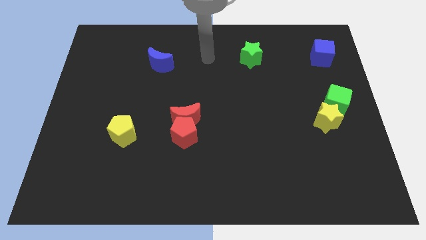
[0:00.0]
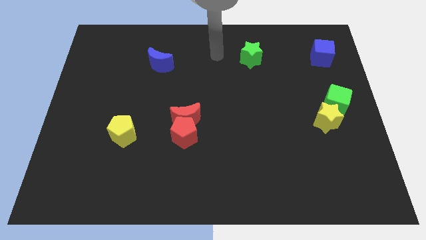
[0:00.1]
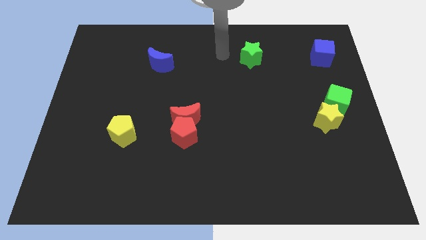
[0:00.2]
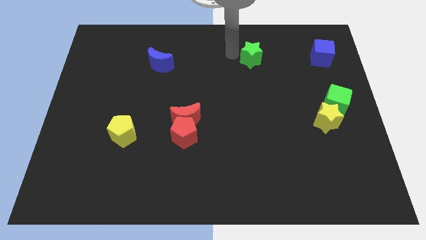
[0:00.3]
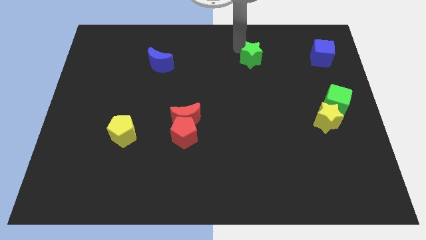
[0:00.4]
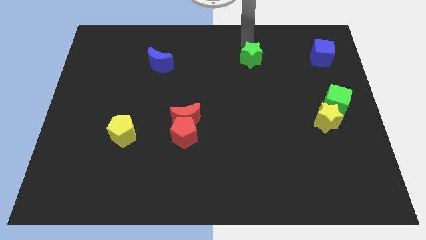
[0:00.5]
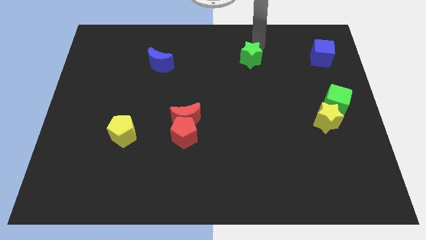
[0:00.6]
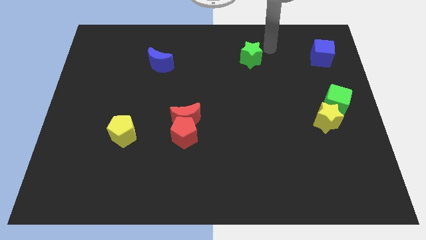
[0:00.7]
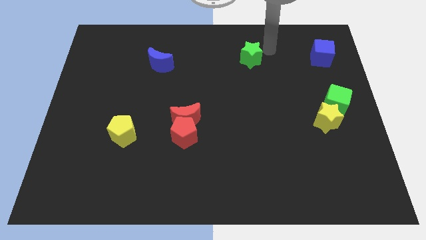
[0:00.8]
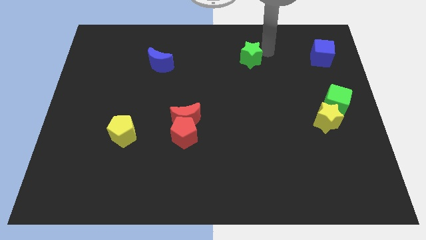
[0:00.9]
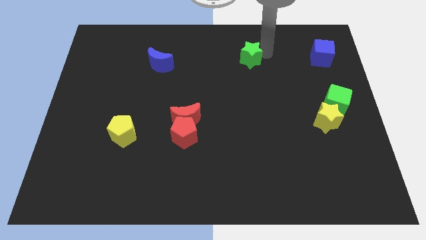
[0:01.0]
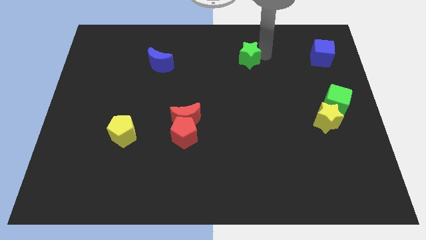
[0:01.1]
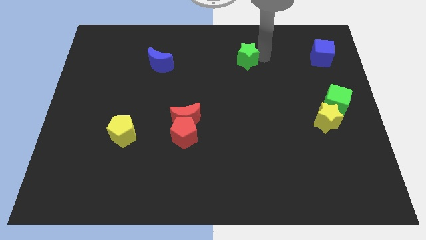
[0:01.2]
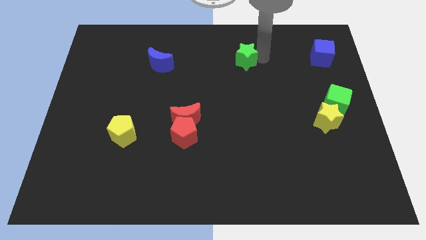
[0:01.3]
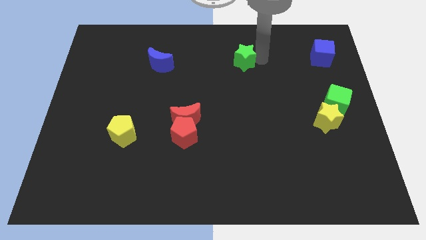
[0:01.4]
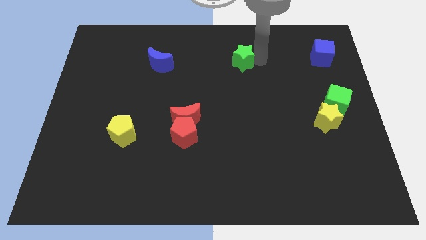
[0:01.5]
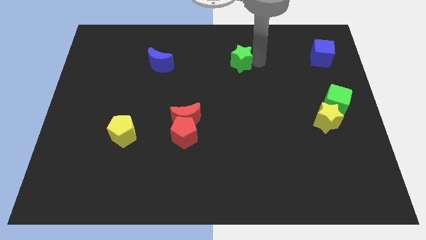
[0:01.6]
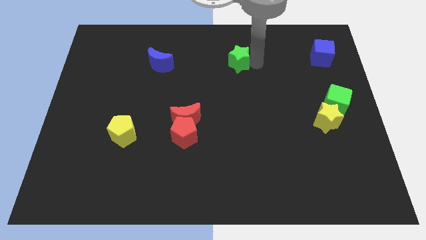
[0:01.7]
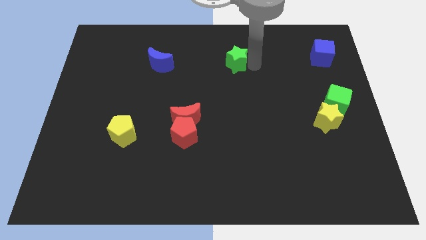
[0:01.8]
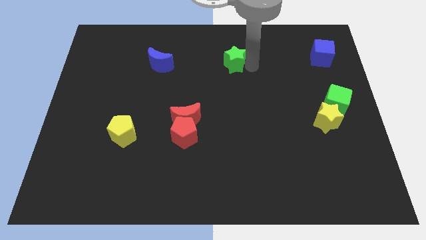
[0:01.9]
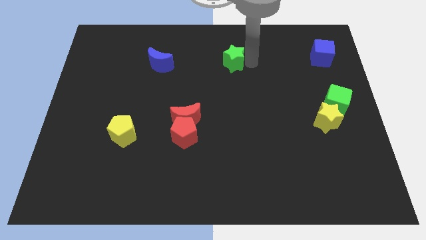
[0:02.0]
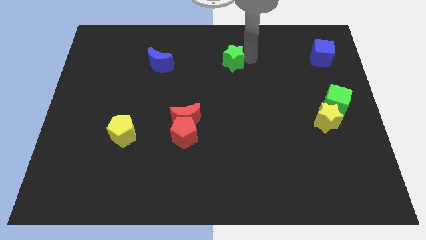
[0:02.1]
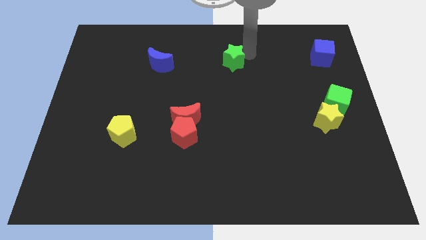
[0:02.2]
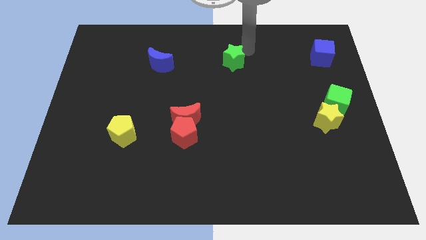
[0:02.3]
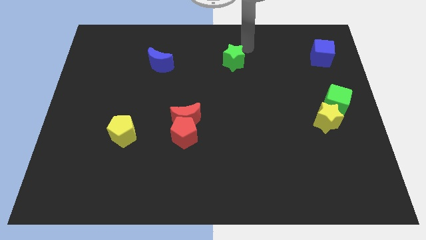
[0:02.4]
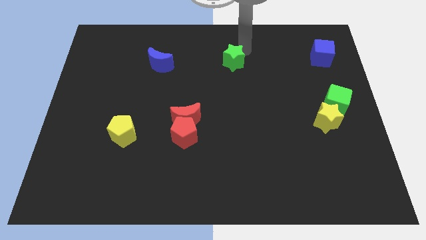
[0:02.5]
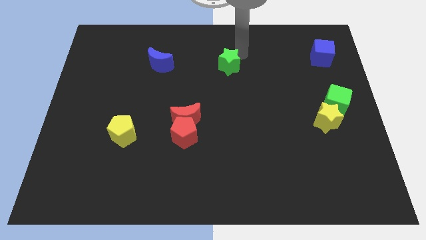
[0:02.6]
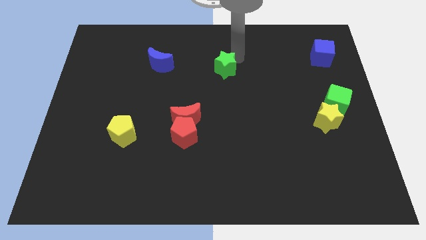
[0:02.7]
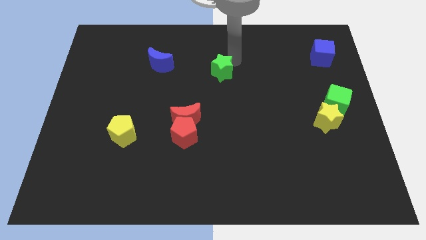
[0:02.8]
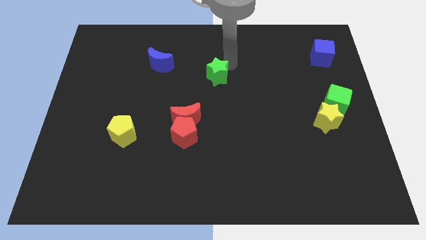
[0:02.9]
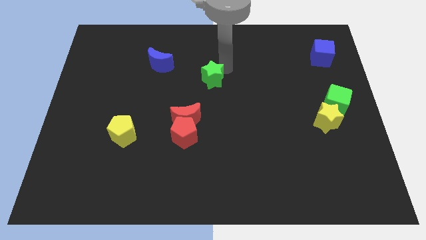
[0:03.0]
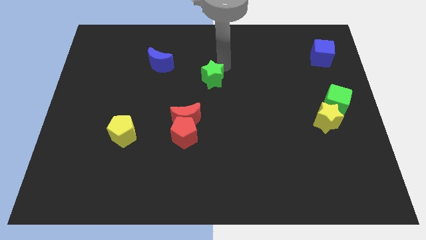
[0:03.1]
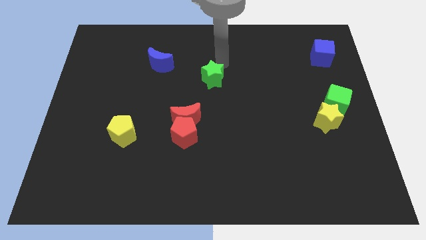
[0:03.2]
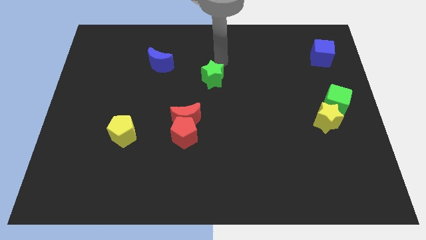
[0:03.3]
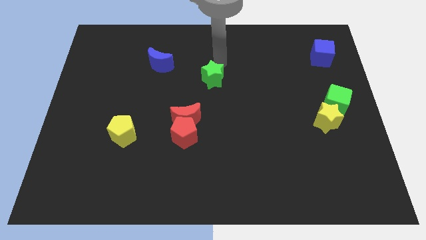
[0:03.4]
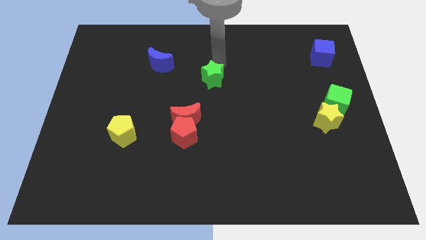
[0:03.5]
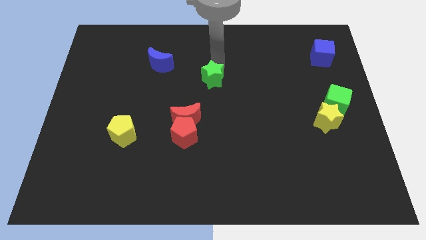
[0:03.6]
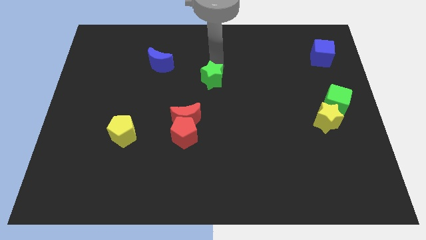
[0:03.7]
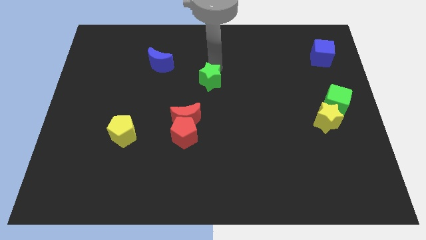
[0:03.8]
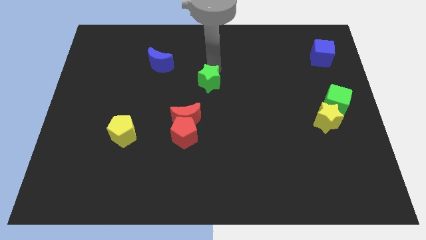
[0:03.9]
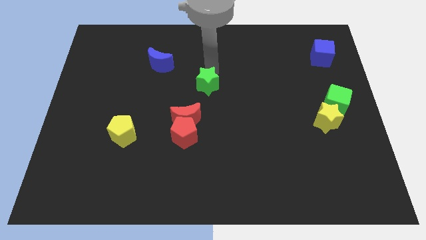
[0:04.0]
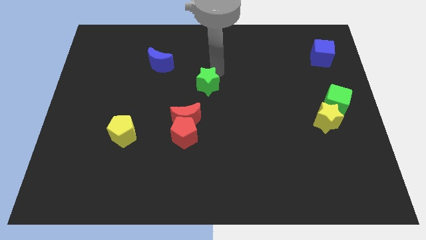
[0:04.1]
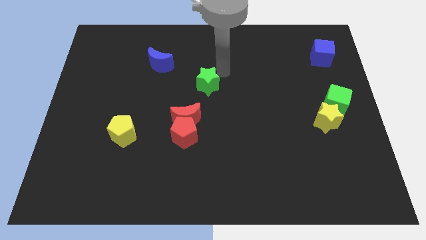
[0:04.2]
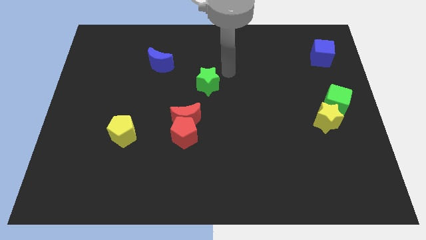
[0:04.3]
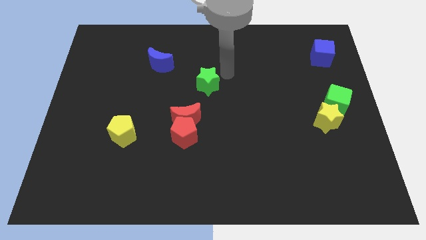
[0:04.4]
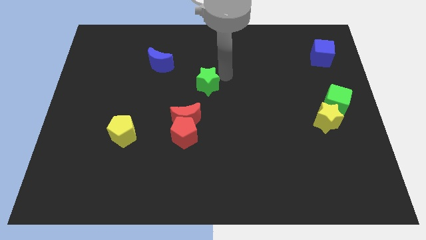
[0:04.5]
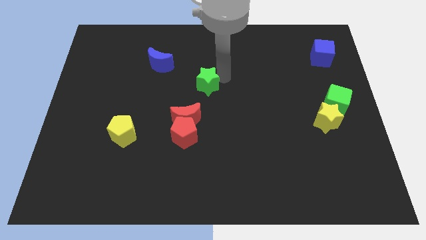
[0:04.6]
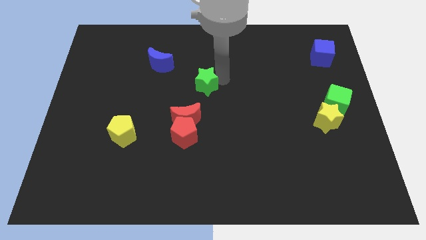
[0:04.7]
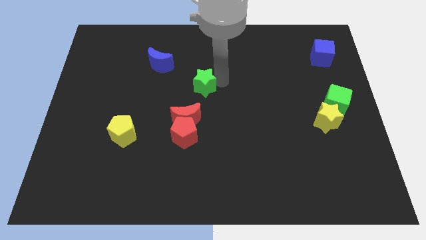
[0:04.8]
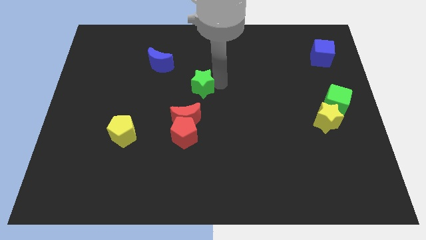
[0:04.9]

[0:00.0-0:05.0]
push the green star above the red pentagon

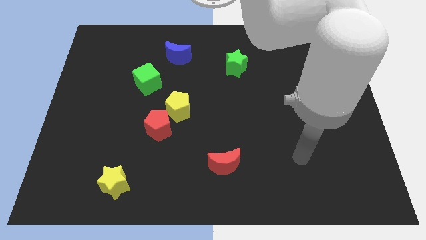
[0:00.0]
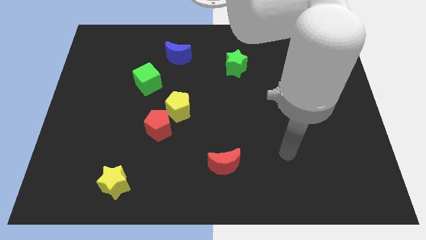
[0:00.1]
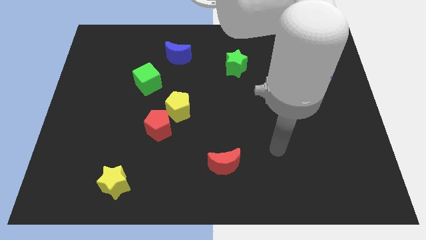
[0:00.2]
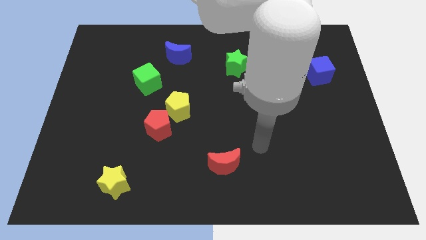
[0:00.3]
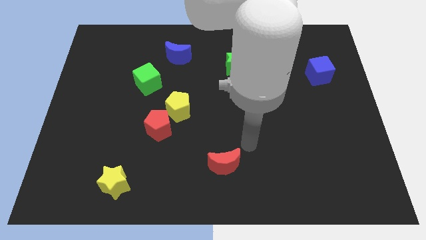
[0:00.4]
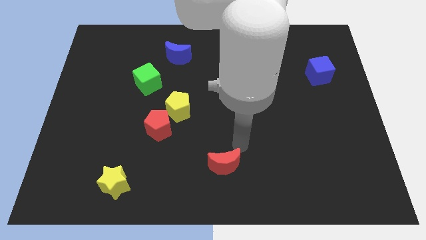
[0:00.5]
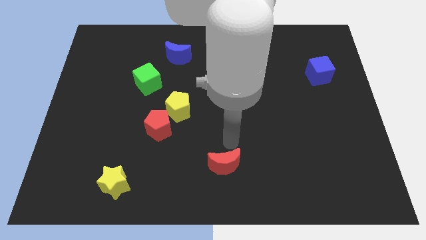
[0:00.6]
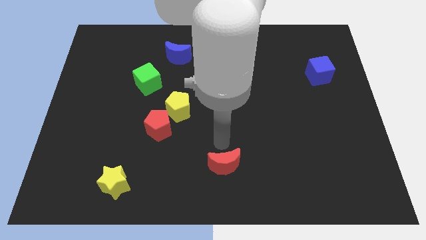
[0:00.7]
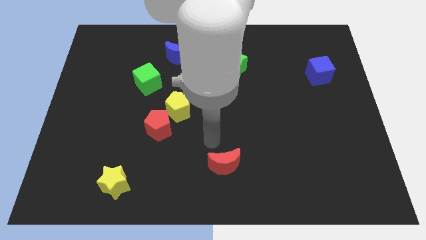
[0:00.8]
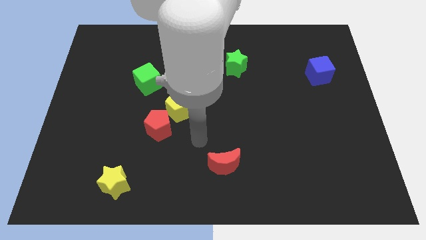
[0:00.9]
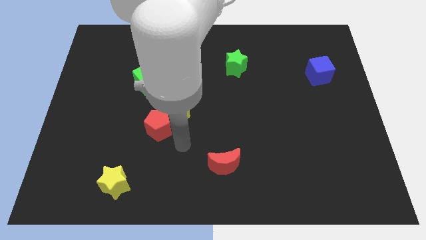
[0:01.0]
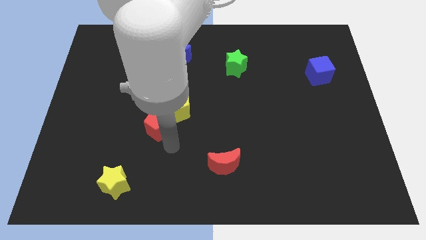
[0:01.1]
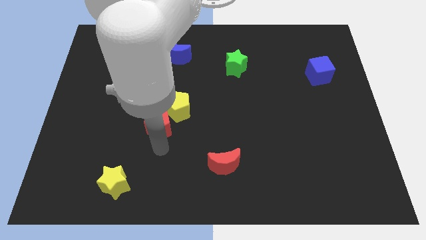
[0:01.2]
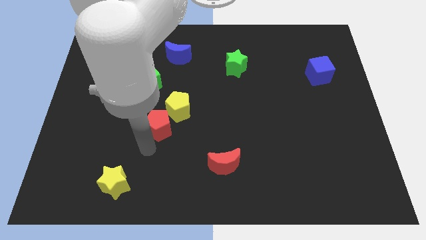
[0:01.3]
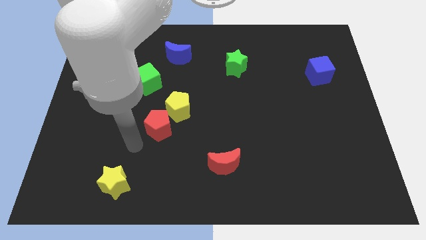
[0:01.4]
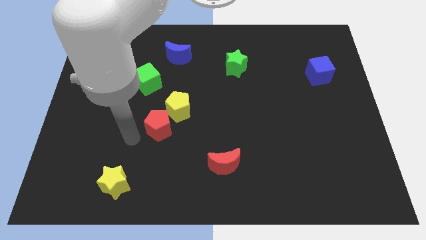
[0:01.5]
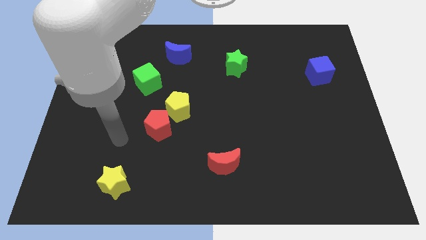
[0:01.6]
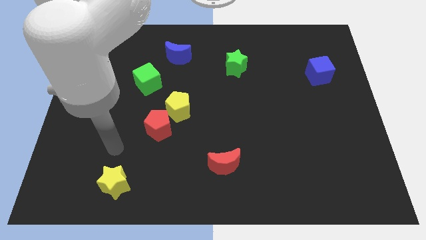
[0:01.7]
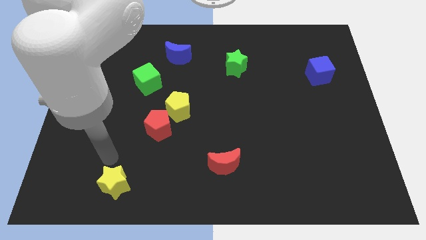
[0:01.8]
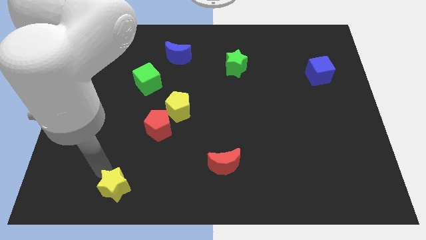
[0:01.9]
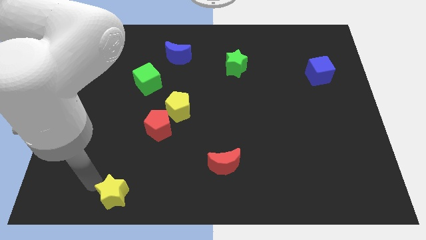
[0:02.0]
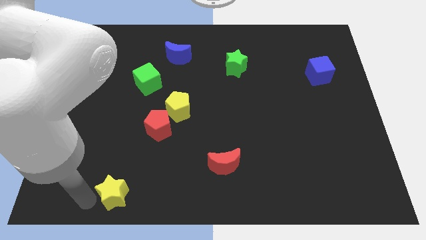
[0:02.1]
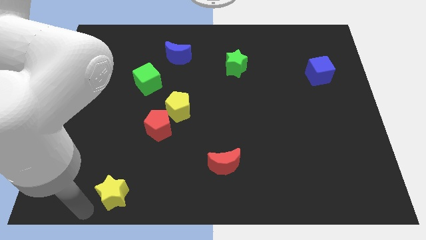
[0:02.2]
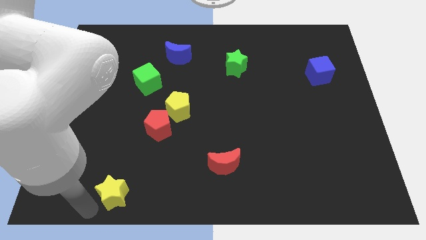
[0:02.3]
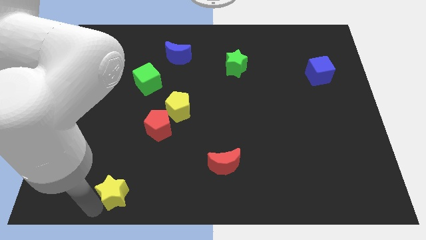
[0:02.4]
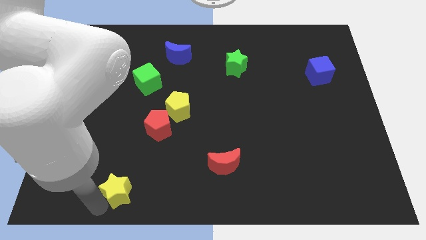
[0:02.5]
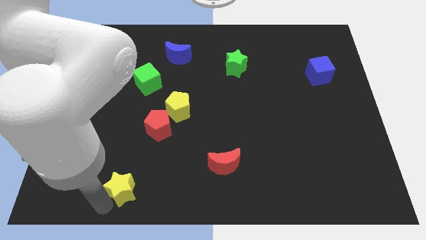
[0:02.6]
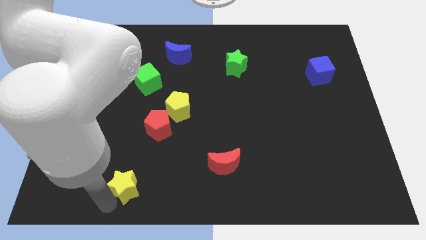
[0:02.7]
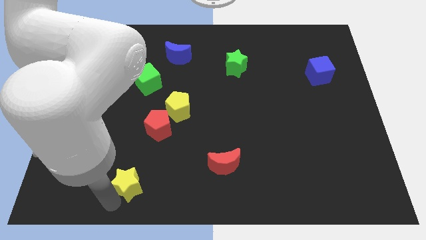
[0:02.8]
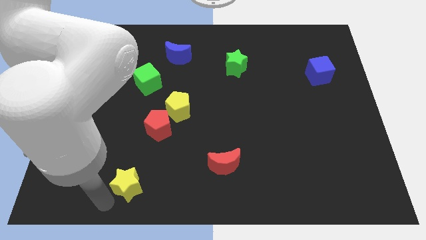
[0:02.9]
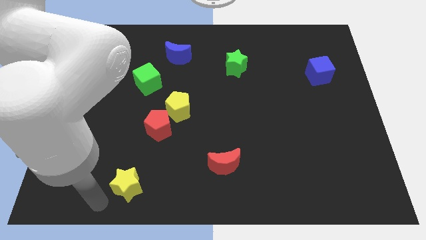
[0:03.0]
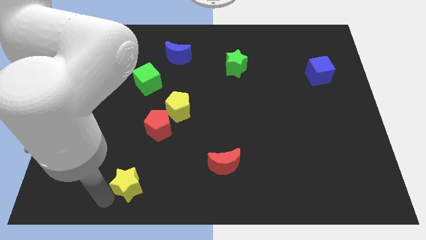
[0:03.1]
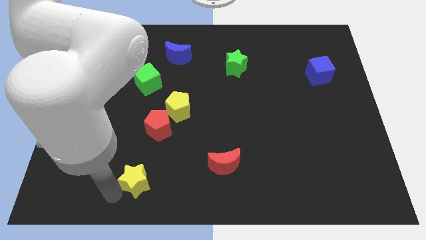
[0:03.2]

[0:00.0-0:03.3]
move the yellow star below the red pentagon
